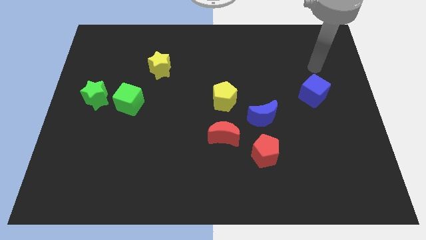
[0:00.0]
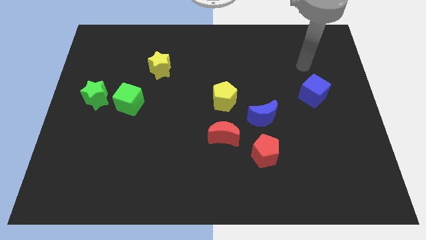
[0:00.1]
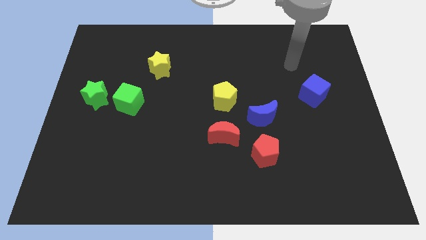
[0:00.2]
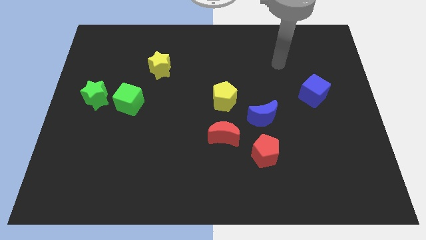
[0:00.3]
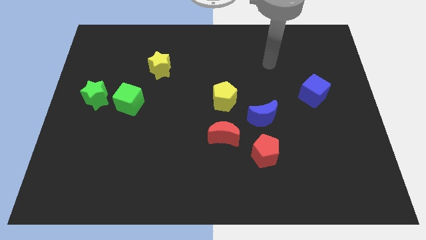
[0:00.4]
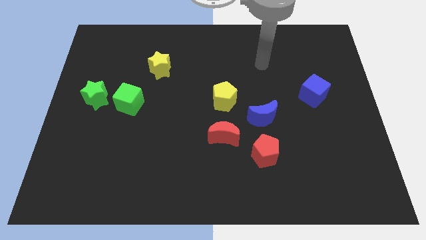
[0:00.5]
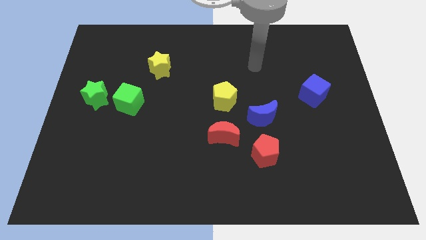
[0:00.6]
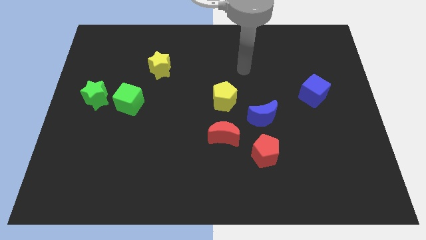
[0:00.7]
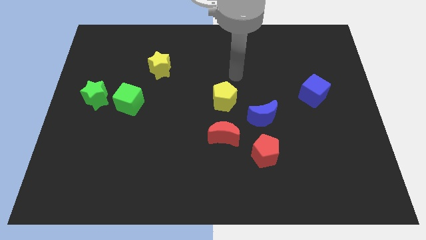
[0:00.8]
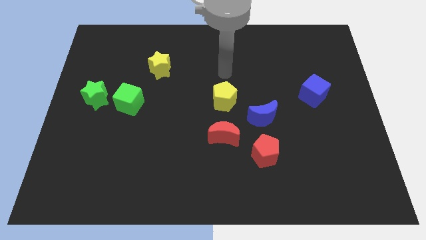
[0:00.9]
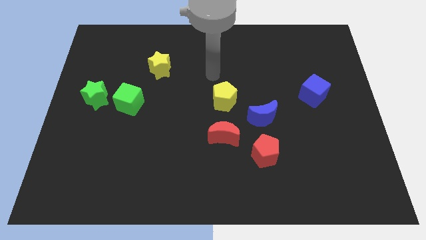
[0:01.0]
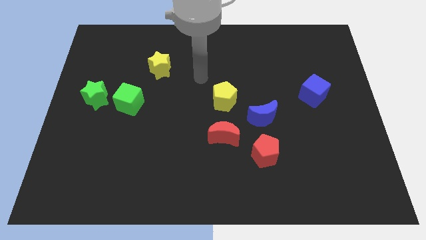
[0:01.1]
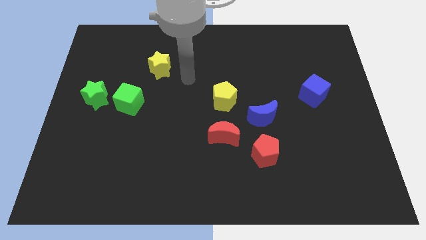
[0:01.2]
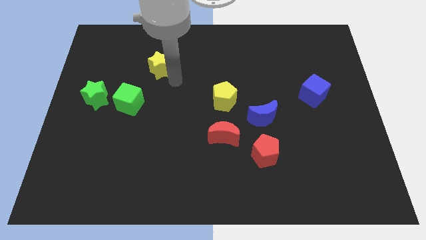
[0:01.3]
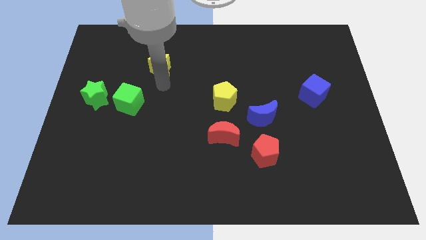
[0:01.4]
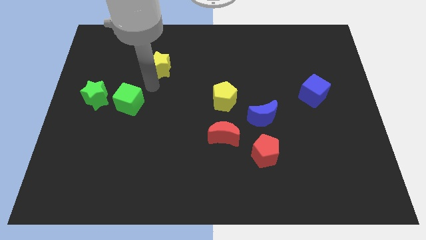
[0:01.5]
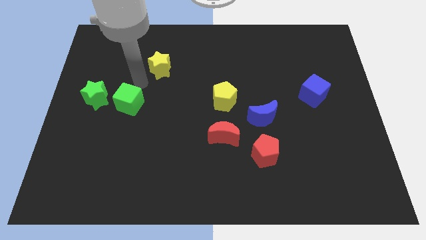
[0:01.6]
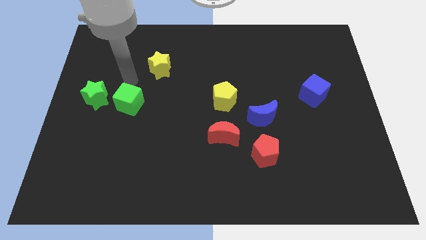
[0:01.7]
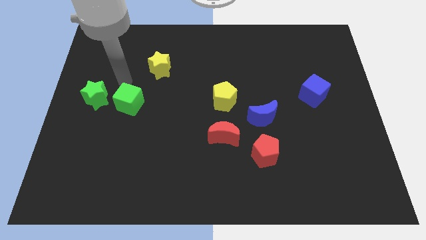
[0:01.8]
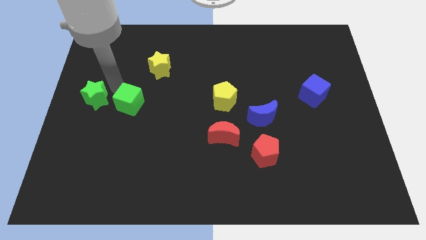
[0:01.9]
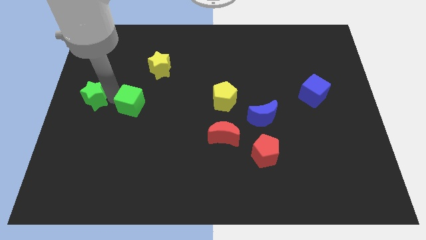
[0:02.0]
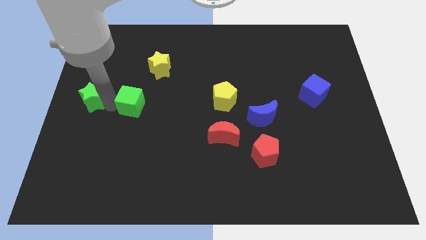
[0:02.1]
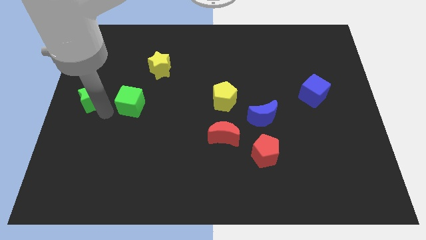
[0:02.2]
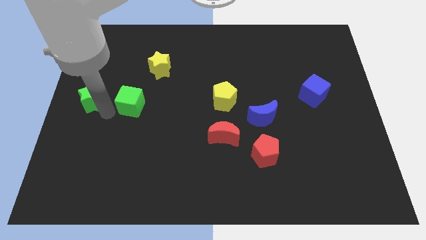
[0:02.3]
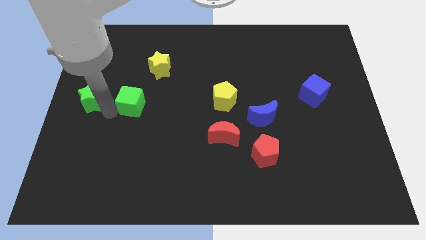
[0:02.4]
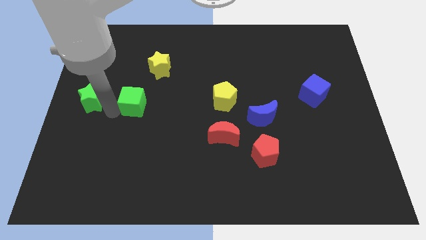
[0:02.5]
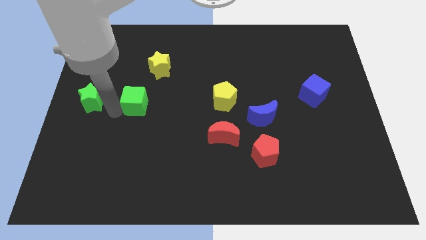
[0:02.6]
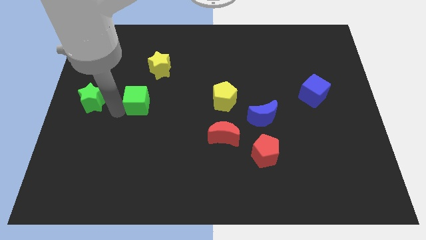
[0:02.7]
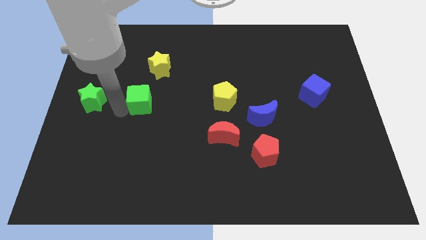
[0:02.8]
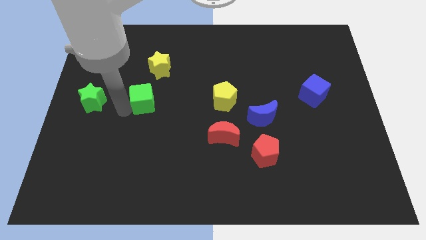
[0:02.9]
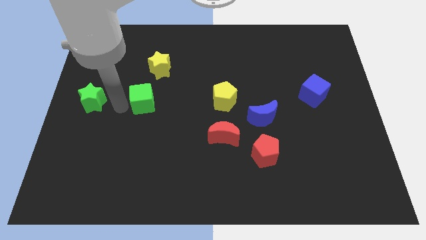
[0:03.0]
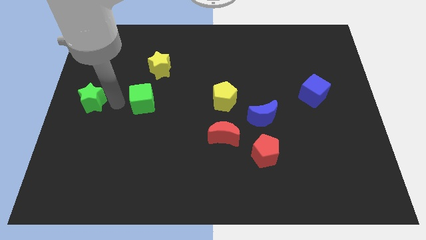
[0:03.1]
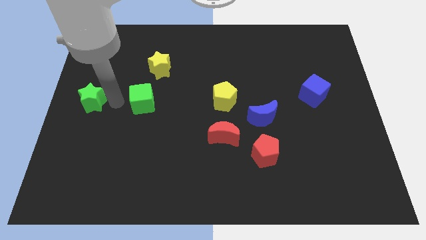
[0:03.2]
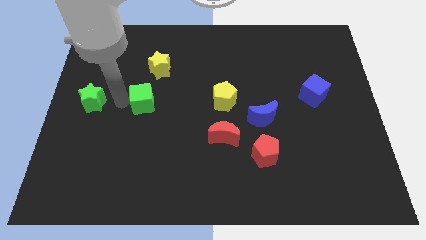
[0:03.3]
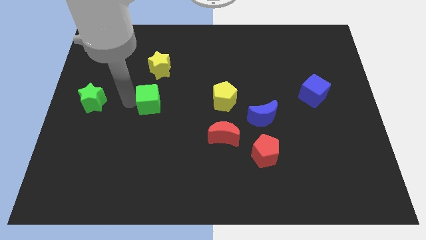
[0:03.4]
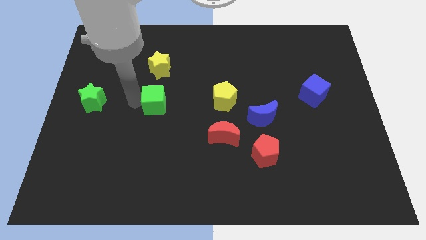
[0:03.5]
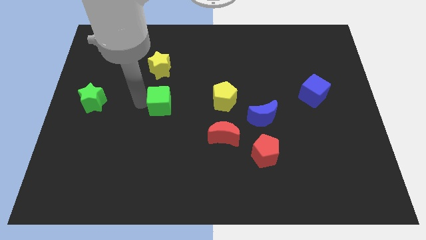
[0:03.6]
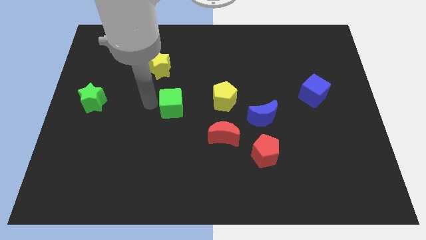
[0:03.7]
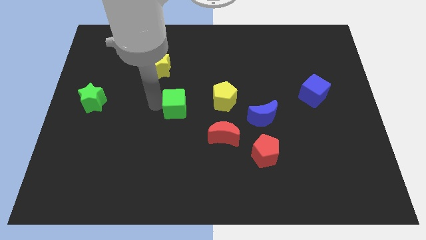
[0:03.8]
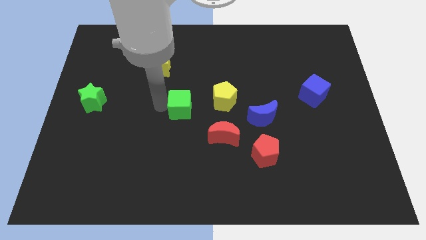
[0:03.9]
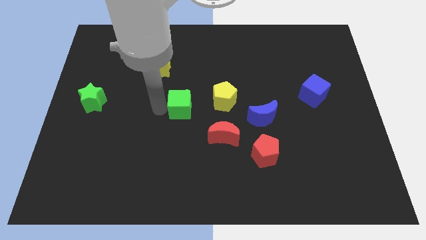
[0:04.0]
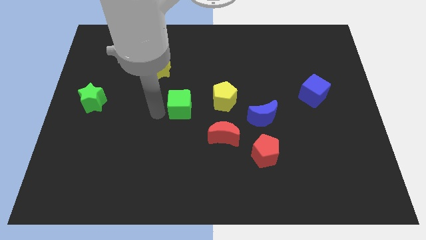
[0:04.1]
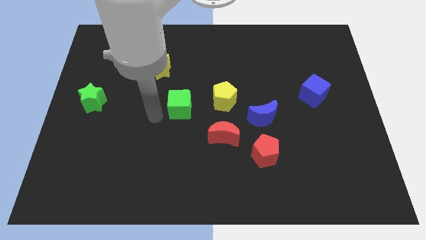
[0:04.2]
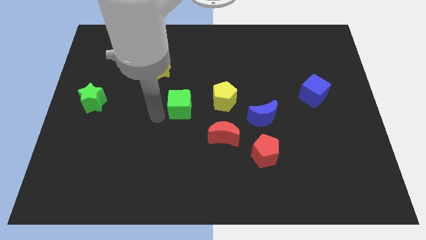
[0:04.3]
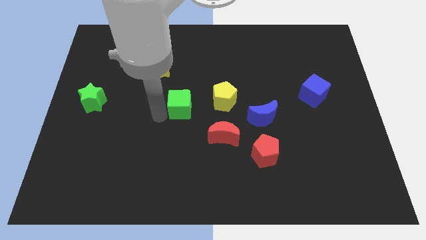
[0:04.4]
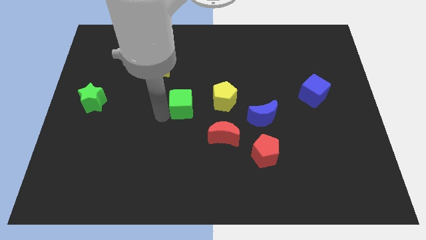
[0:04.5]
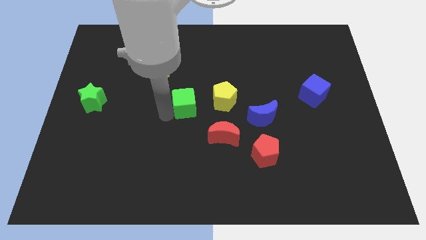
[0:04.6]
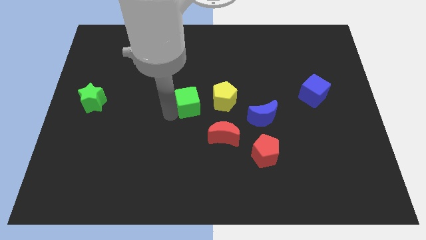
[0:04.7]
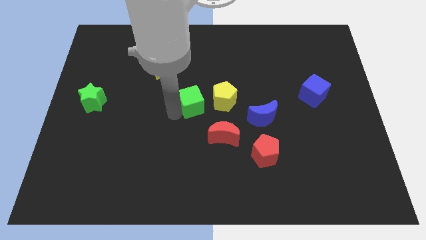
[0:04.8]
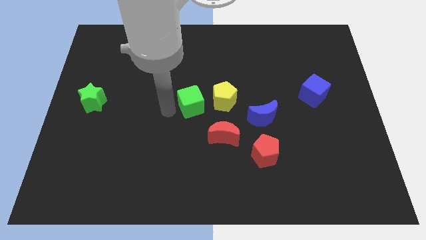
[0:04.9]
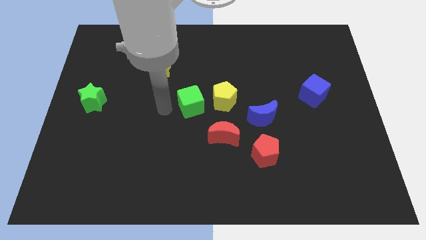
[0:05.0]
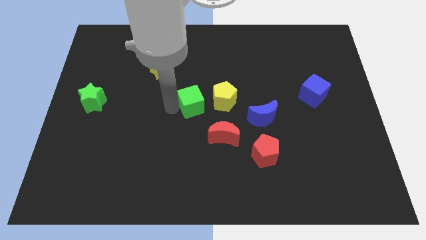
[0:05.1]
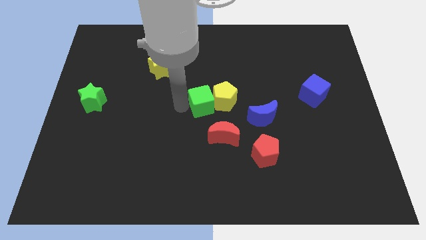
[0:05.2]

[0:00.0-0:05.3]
push the green cube next to the yellow pentagon

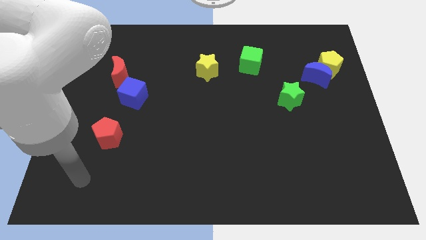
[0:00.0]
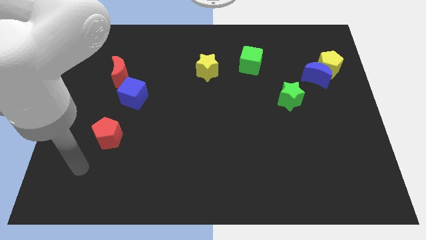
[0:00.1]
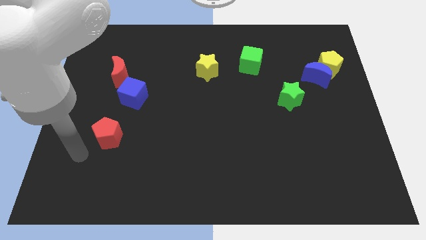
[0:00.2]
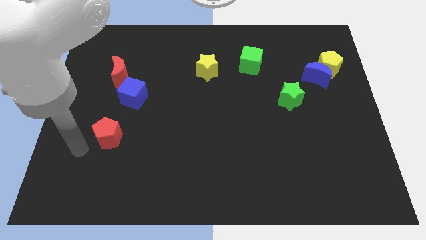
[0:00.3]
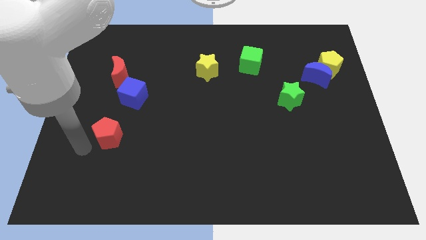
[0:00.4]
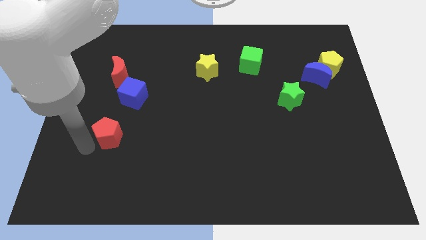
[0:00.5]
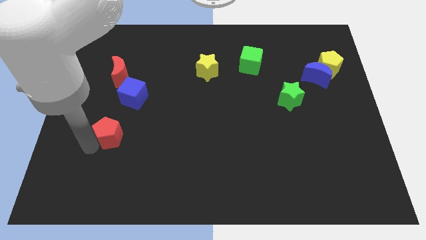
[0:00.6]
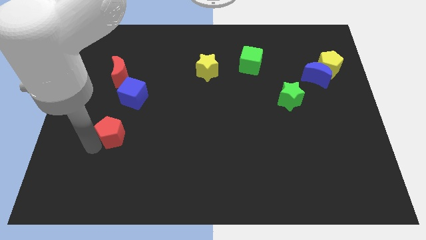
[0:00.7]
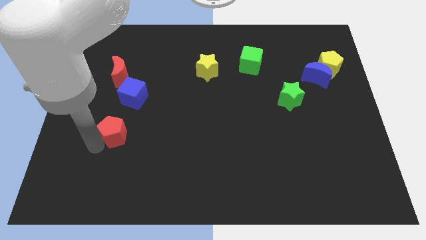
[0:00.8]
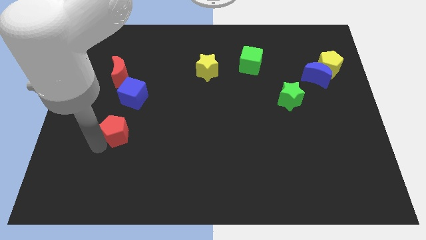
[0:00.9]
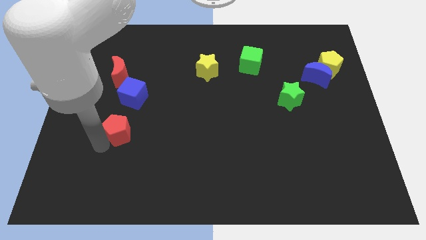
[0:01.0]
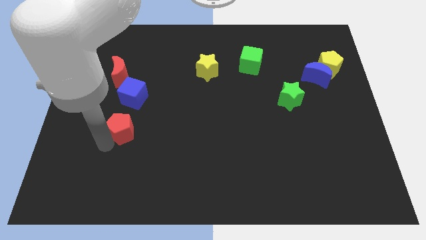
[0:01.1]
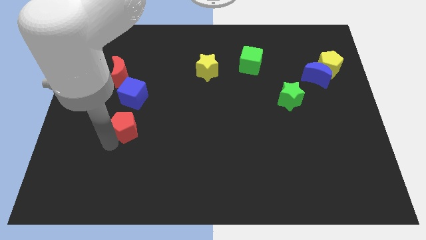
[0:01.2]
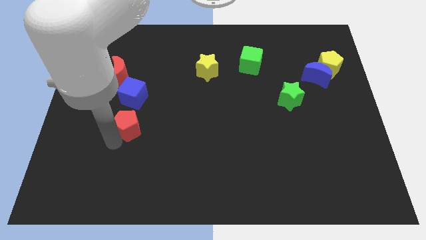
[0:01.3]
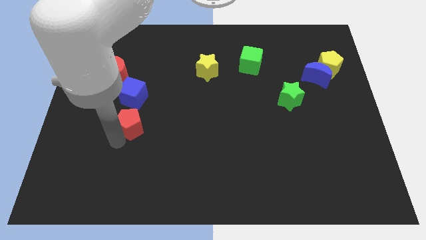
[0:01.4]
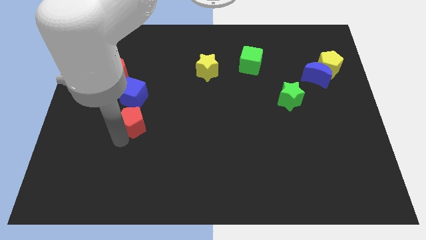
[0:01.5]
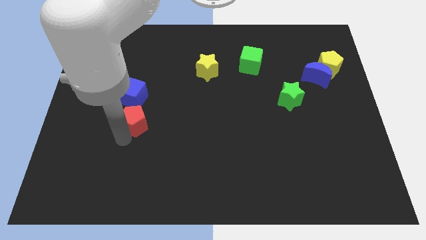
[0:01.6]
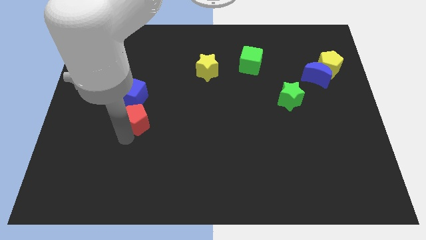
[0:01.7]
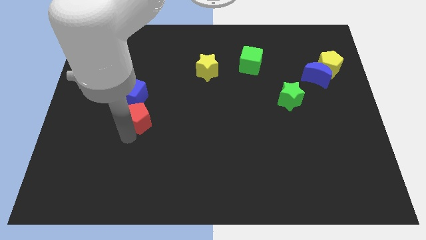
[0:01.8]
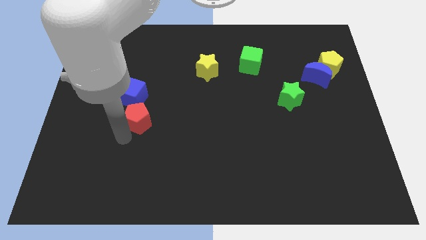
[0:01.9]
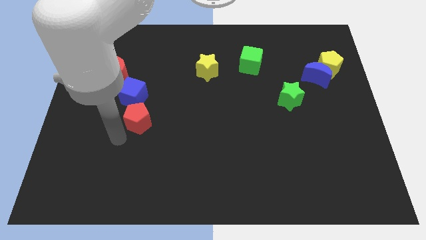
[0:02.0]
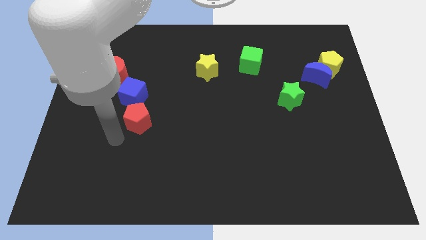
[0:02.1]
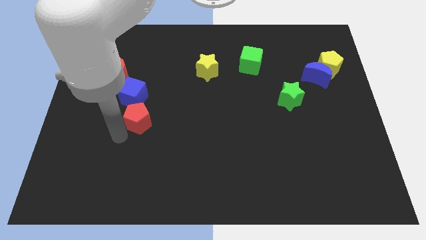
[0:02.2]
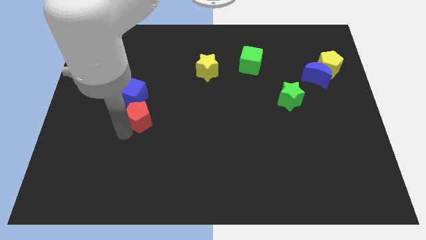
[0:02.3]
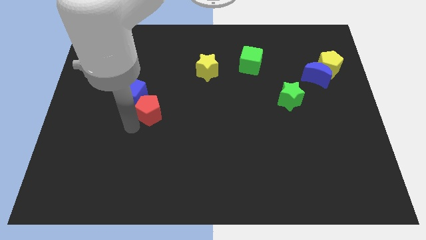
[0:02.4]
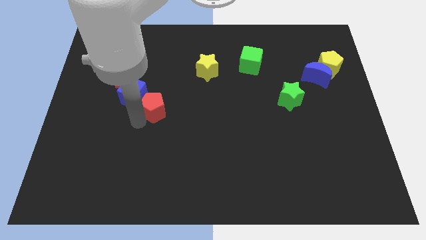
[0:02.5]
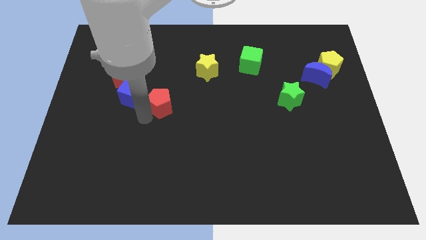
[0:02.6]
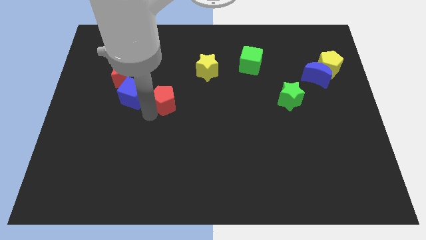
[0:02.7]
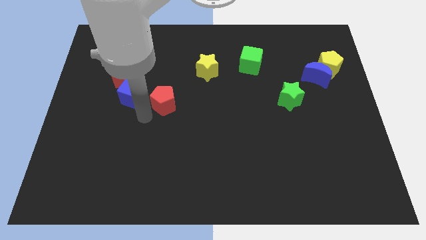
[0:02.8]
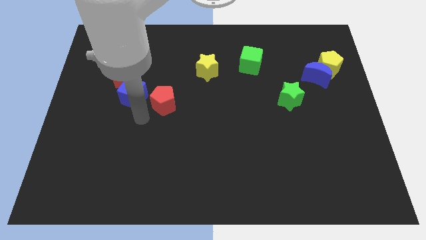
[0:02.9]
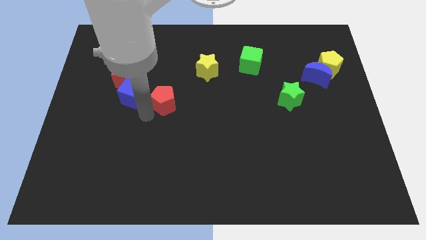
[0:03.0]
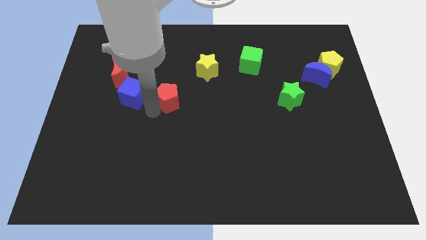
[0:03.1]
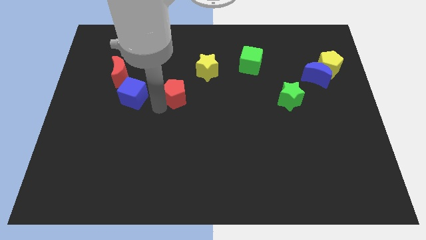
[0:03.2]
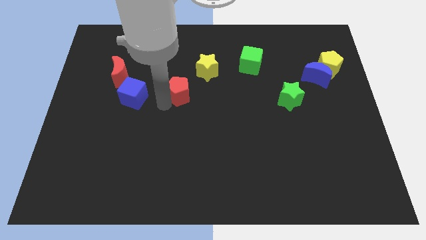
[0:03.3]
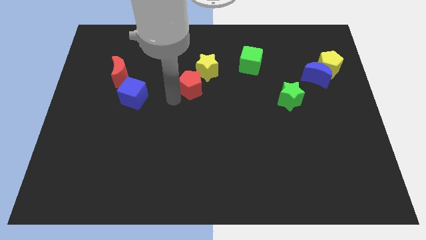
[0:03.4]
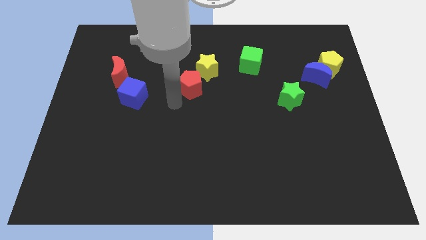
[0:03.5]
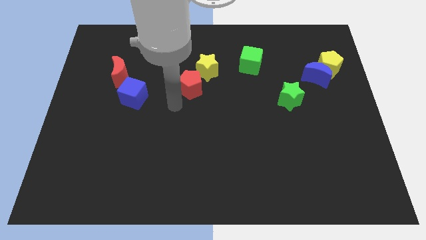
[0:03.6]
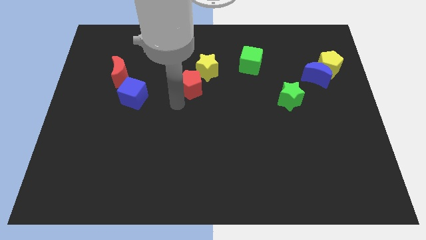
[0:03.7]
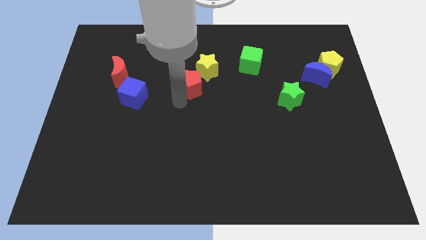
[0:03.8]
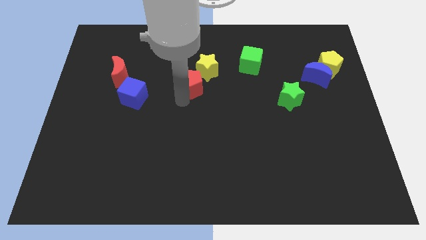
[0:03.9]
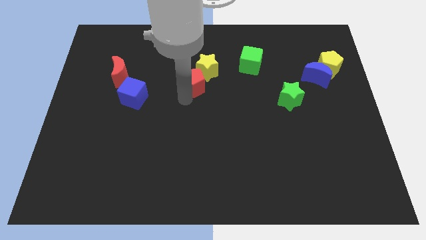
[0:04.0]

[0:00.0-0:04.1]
push the red pentagon close to the yellow star
